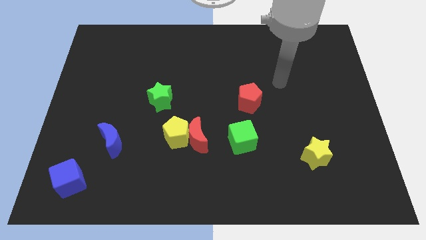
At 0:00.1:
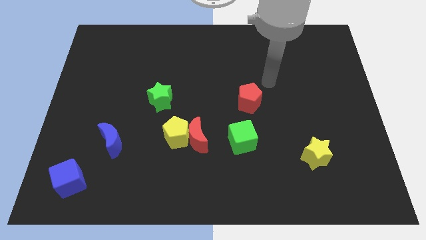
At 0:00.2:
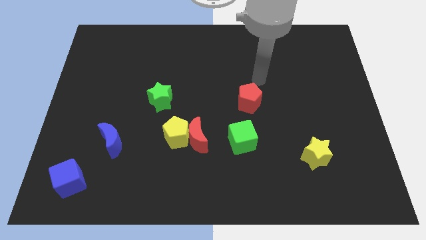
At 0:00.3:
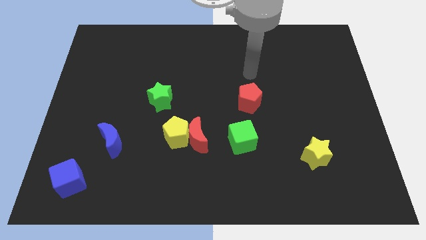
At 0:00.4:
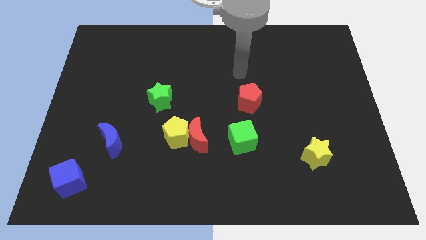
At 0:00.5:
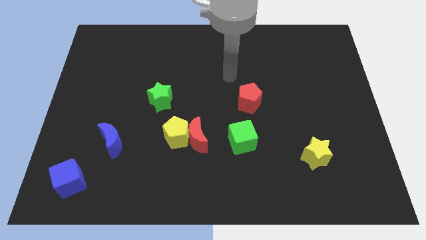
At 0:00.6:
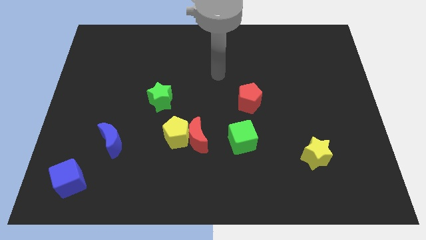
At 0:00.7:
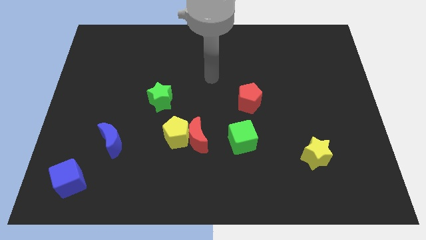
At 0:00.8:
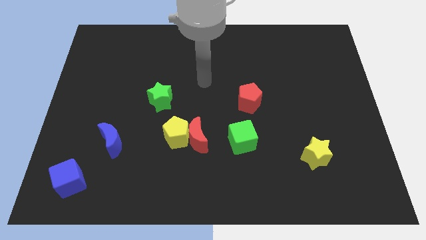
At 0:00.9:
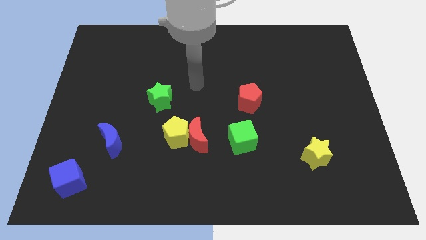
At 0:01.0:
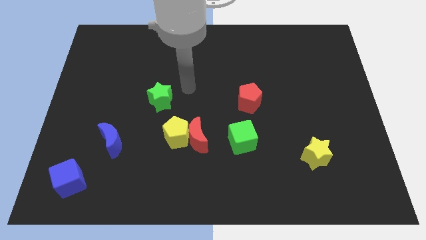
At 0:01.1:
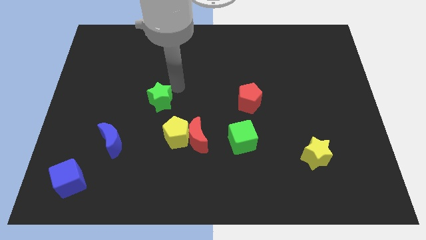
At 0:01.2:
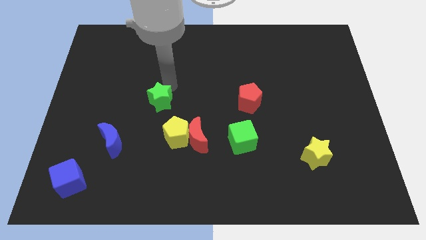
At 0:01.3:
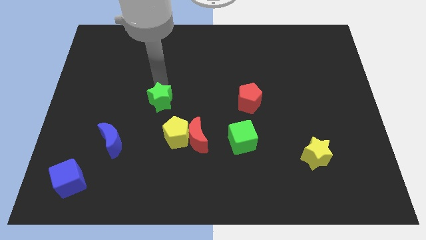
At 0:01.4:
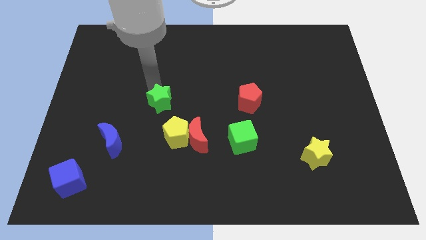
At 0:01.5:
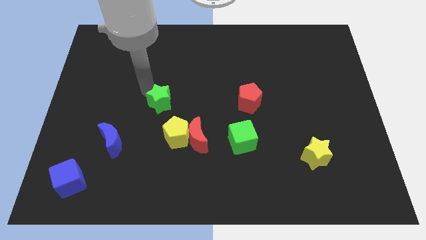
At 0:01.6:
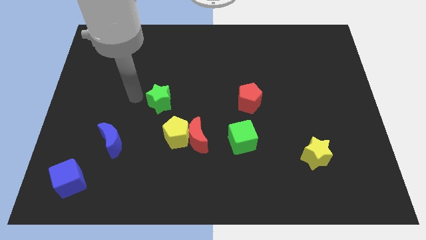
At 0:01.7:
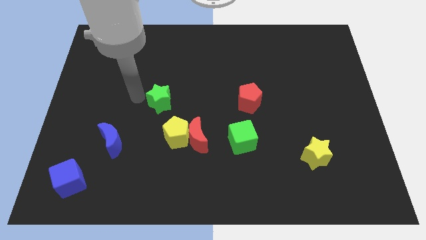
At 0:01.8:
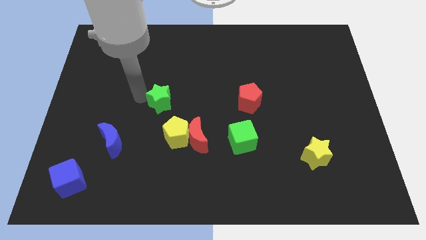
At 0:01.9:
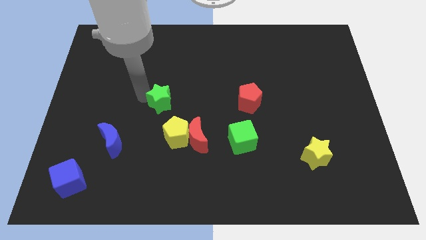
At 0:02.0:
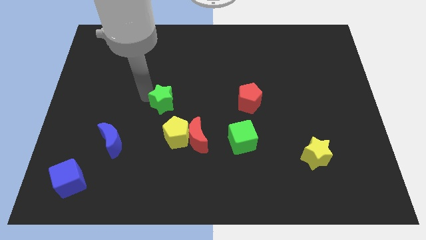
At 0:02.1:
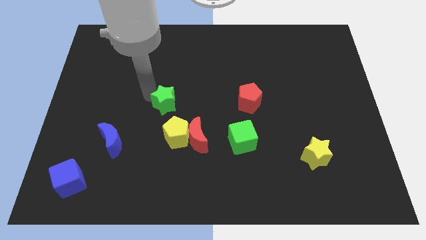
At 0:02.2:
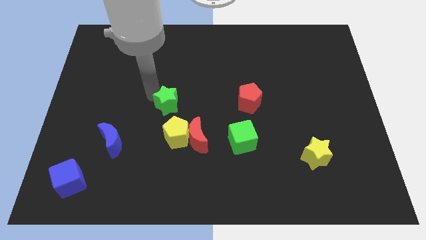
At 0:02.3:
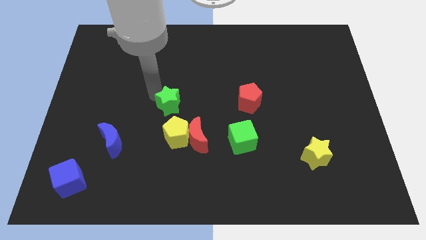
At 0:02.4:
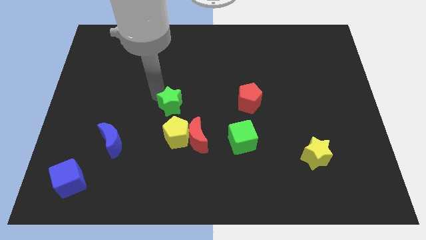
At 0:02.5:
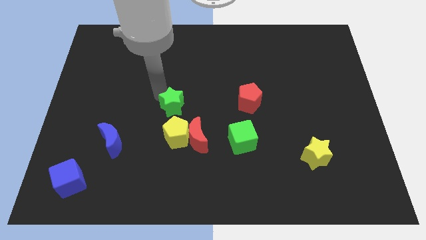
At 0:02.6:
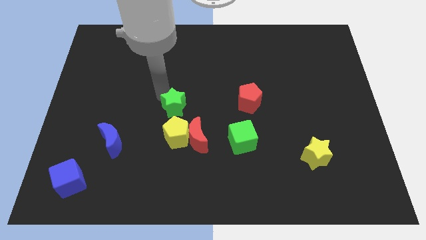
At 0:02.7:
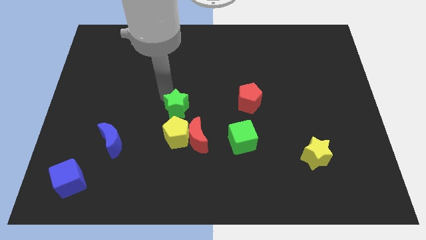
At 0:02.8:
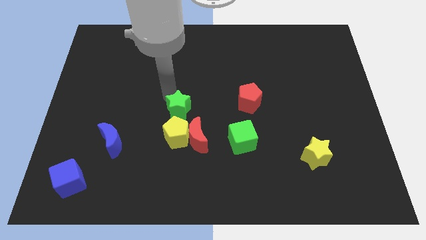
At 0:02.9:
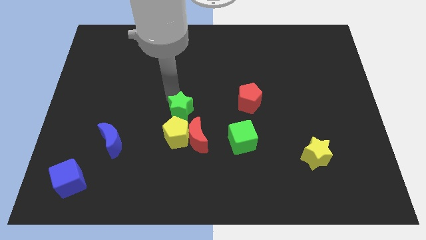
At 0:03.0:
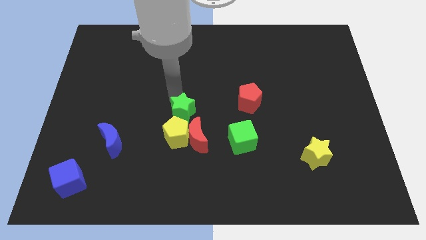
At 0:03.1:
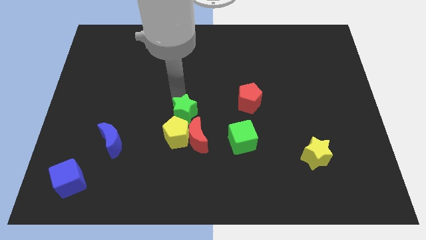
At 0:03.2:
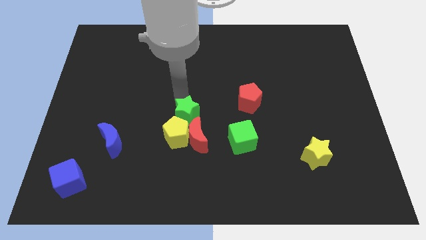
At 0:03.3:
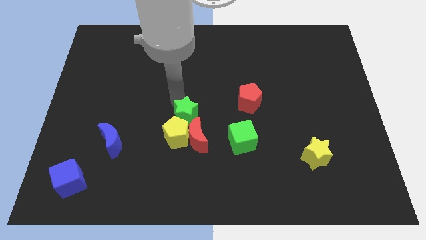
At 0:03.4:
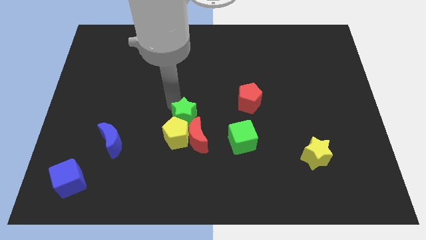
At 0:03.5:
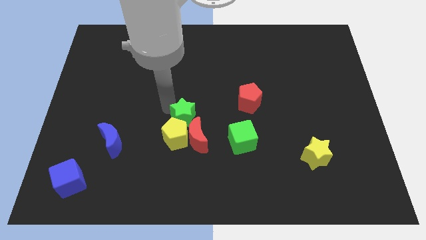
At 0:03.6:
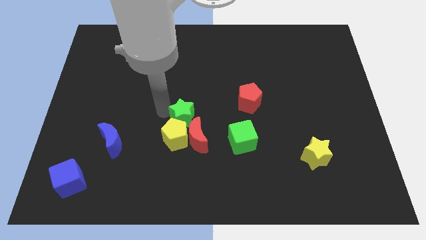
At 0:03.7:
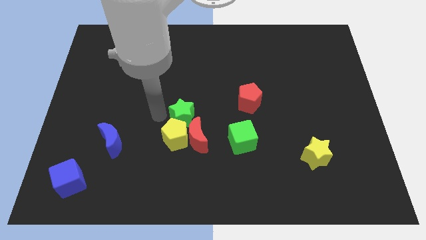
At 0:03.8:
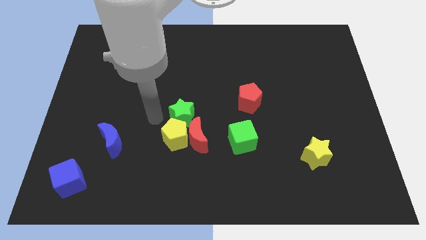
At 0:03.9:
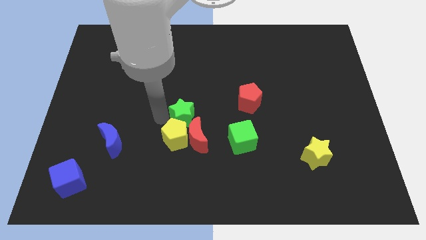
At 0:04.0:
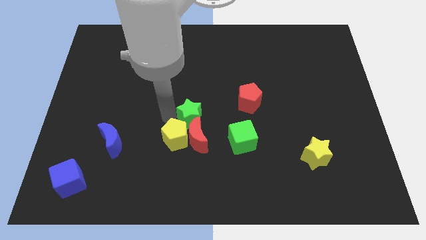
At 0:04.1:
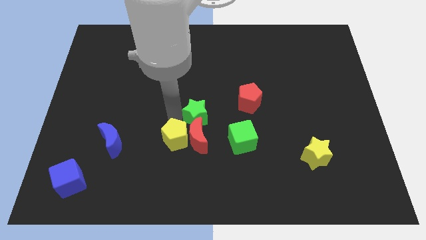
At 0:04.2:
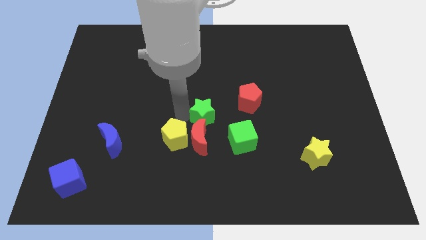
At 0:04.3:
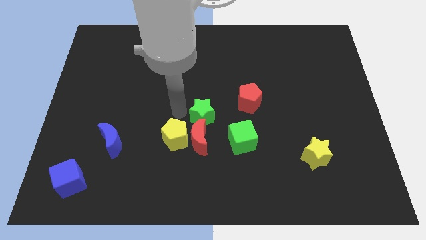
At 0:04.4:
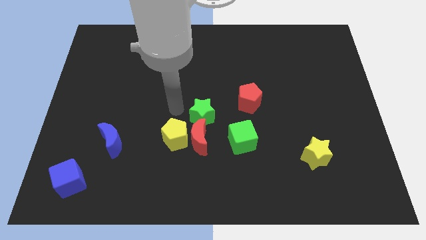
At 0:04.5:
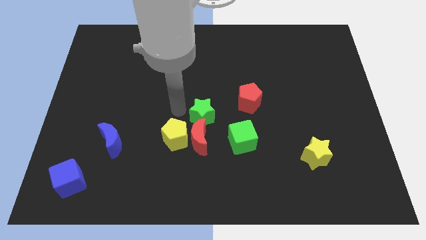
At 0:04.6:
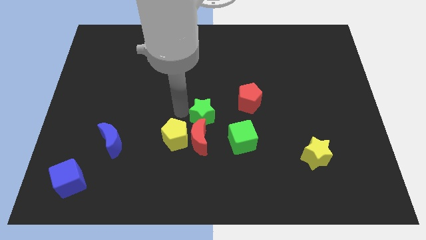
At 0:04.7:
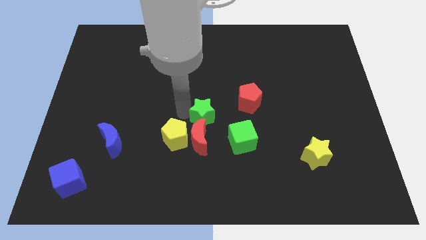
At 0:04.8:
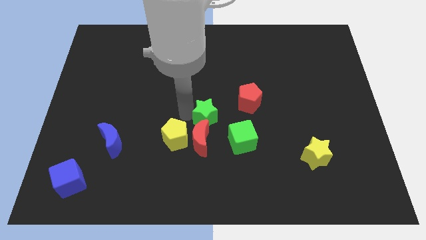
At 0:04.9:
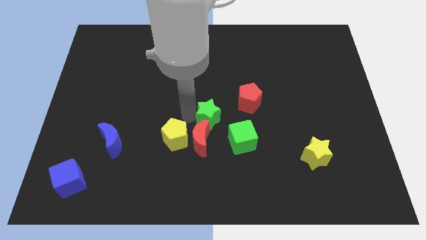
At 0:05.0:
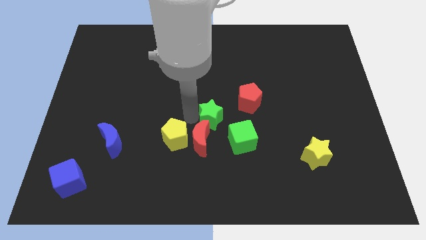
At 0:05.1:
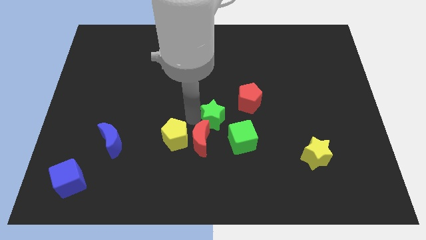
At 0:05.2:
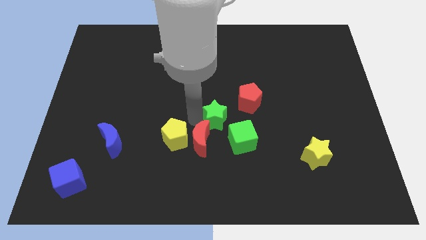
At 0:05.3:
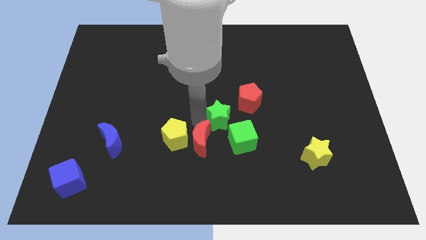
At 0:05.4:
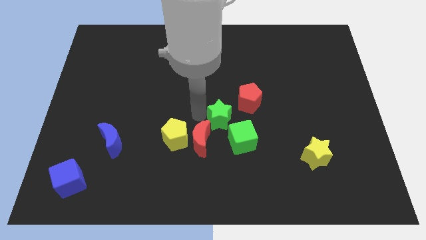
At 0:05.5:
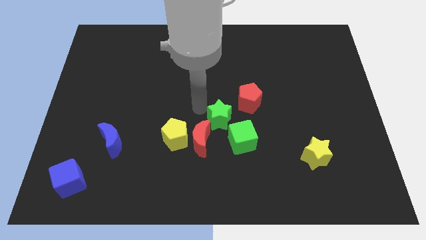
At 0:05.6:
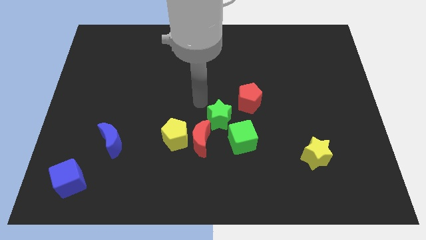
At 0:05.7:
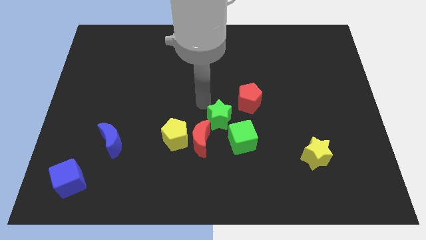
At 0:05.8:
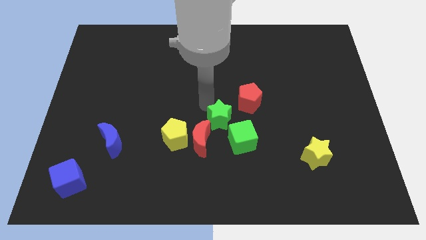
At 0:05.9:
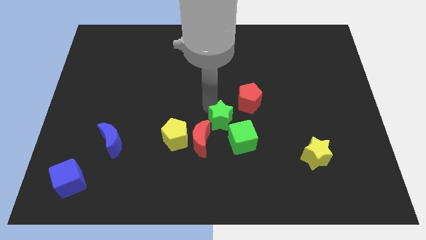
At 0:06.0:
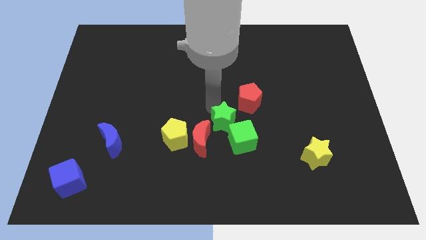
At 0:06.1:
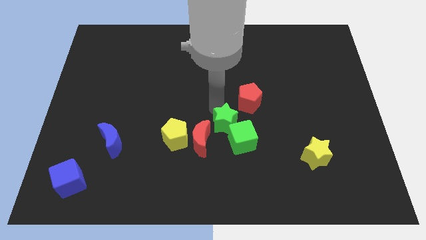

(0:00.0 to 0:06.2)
put the green star next to the green cube
